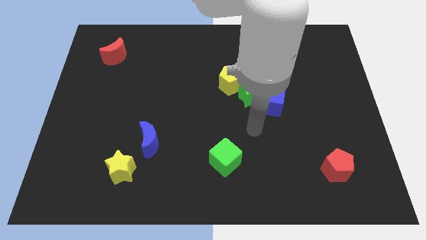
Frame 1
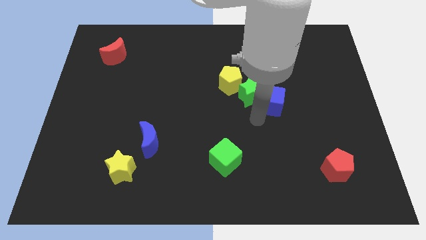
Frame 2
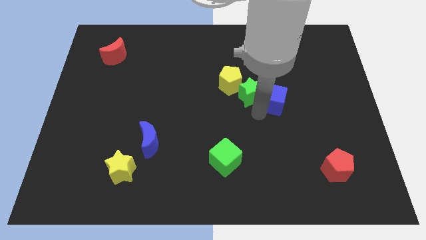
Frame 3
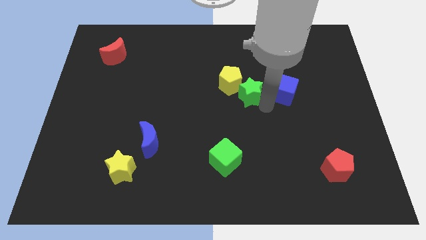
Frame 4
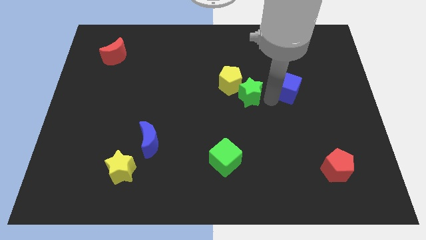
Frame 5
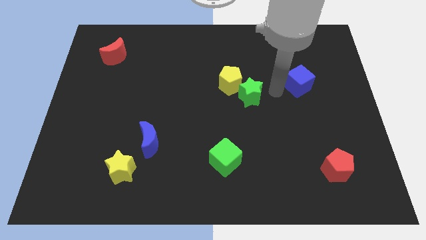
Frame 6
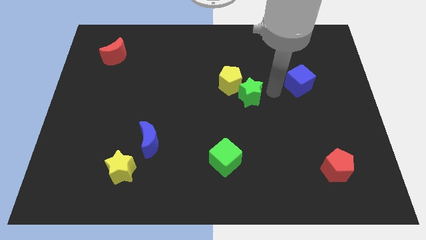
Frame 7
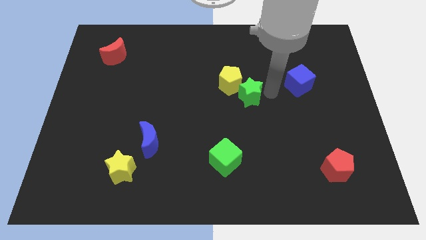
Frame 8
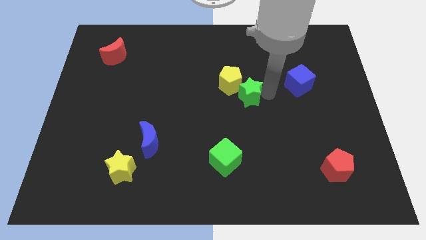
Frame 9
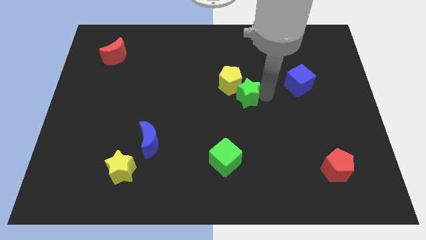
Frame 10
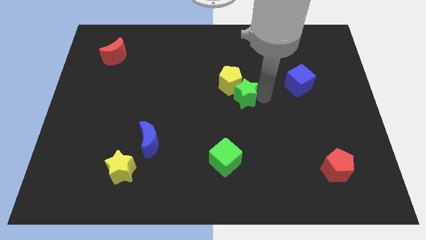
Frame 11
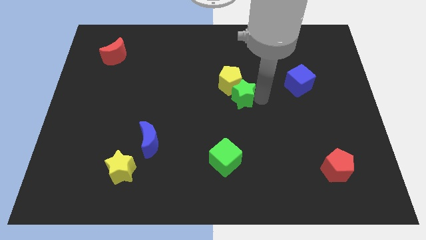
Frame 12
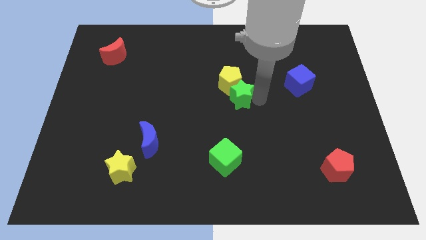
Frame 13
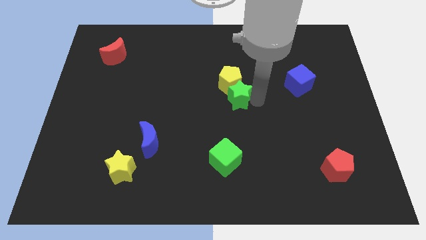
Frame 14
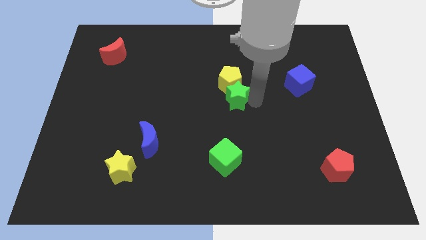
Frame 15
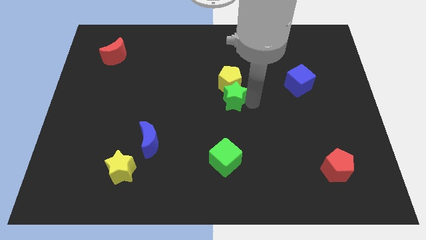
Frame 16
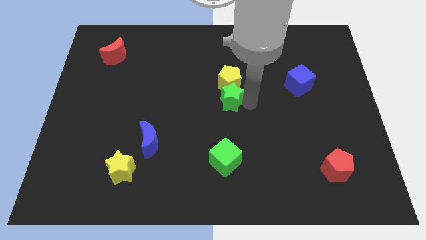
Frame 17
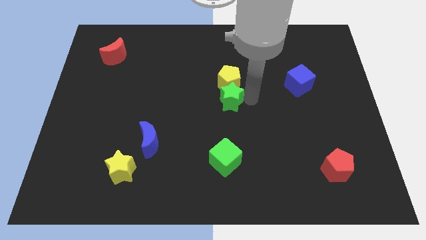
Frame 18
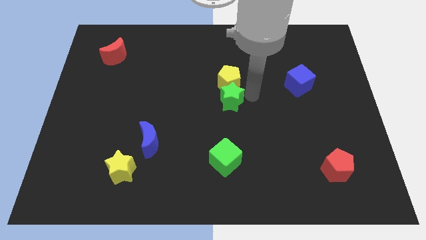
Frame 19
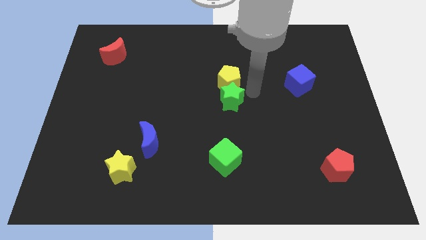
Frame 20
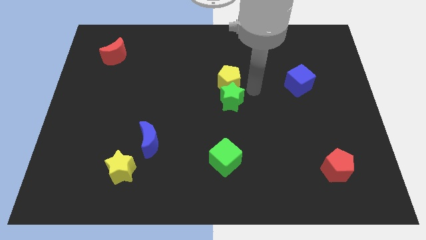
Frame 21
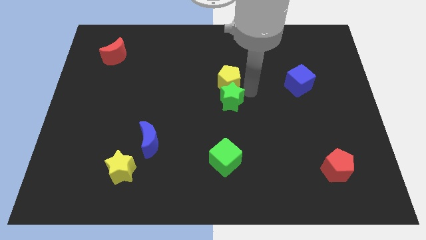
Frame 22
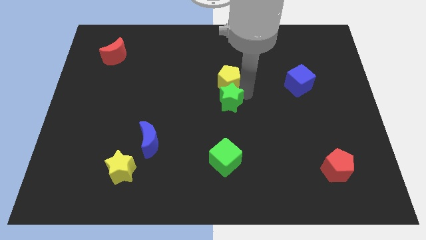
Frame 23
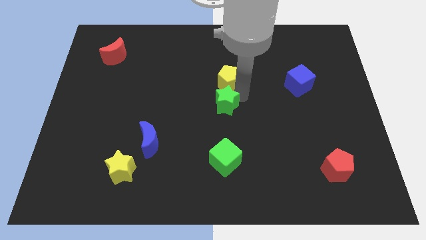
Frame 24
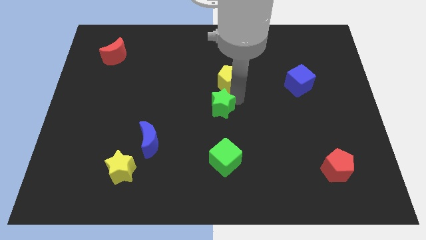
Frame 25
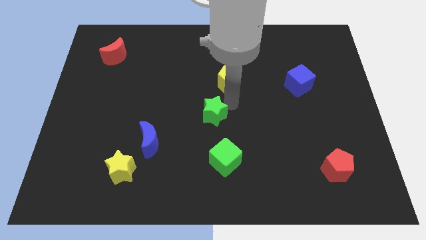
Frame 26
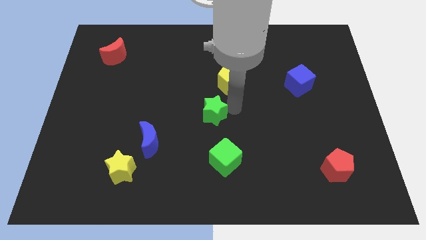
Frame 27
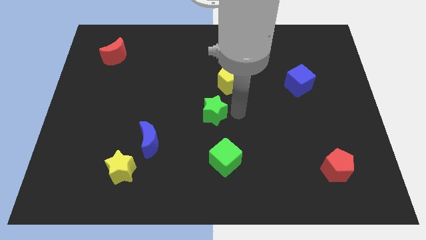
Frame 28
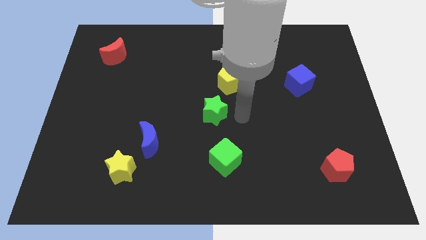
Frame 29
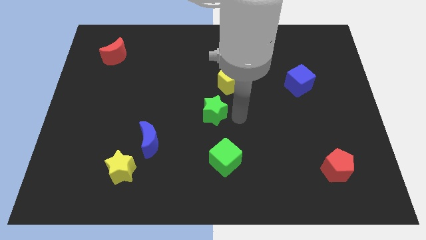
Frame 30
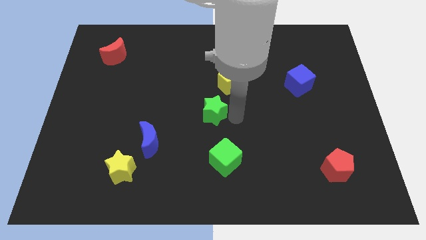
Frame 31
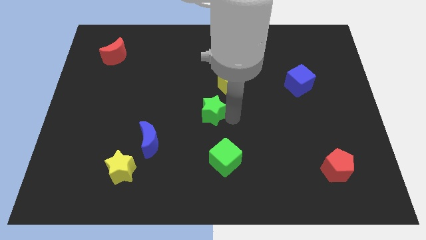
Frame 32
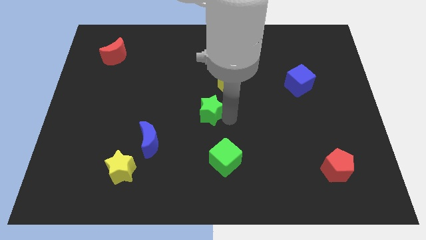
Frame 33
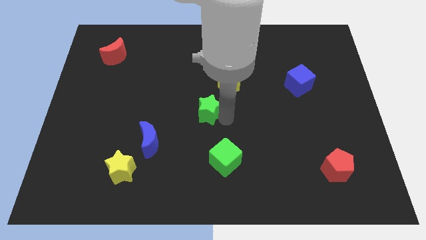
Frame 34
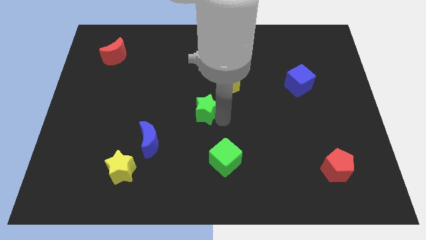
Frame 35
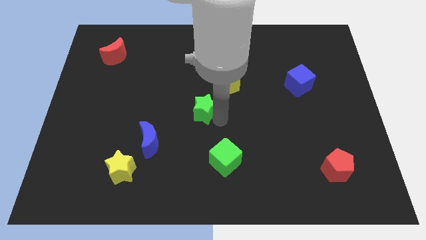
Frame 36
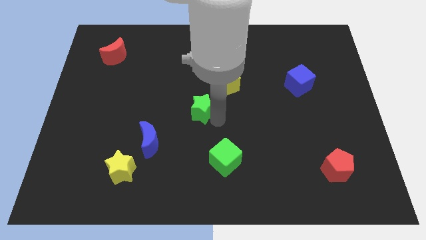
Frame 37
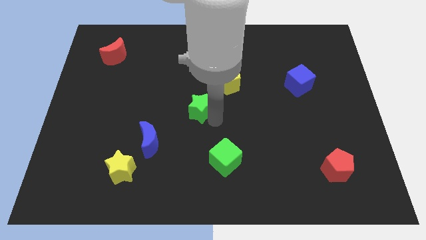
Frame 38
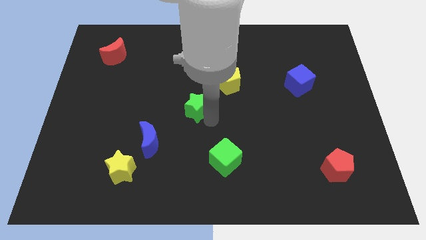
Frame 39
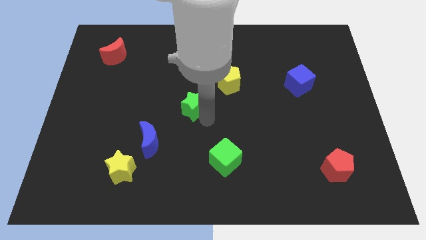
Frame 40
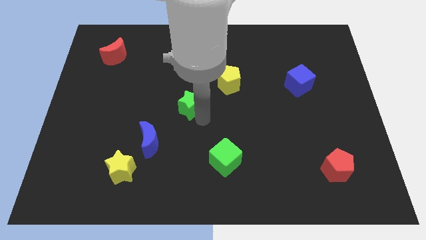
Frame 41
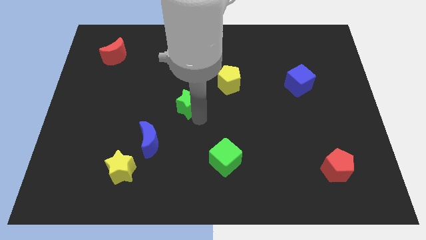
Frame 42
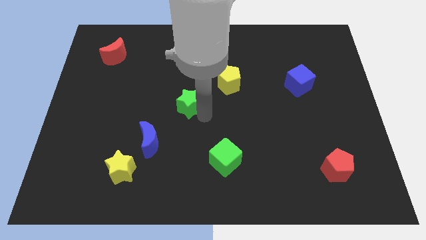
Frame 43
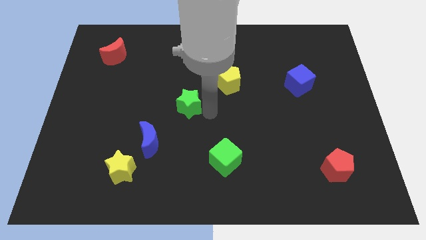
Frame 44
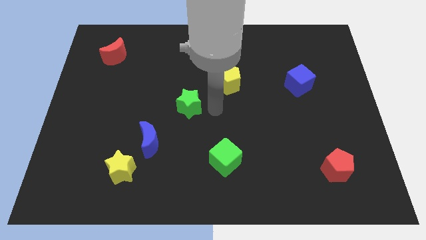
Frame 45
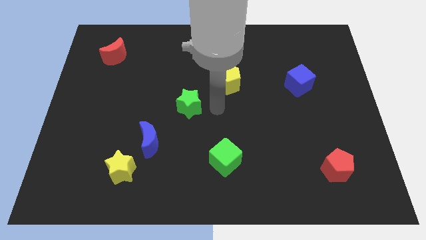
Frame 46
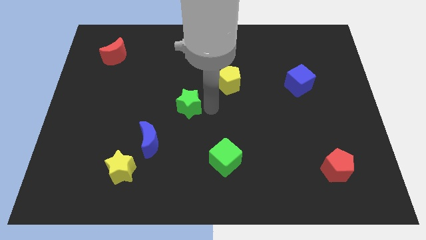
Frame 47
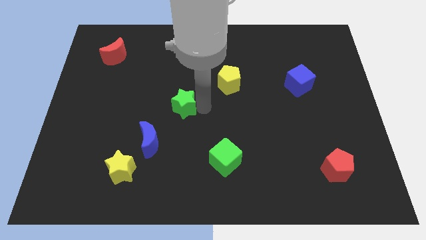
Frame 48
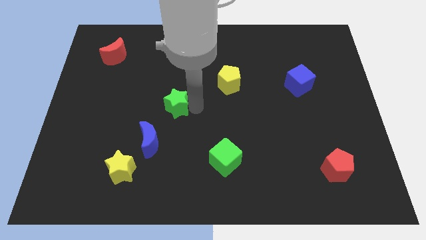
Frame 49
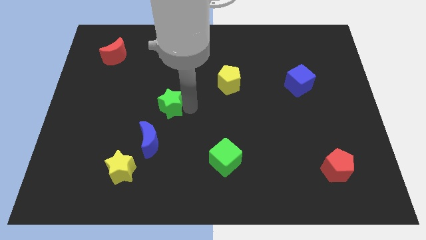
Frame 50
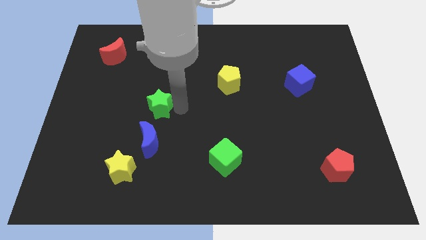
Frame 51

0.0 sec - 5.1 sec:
slide the green star left

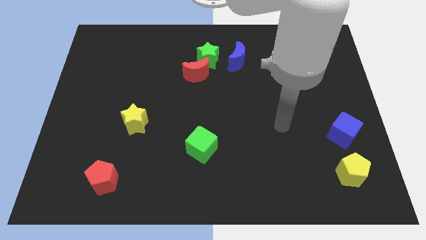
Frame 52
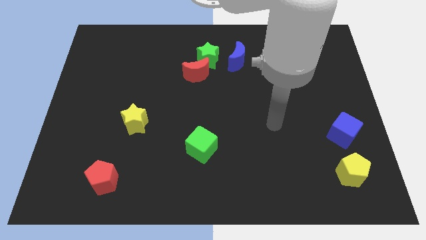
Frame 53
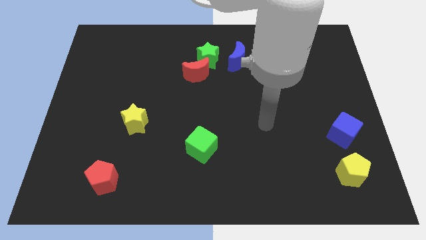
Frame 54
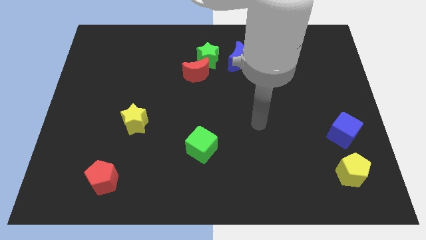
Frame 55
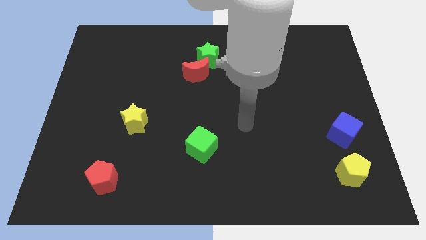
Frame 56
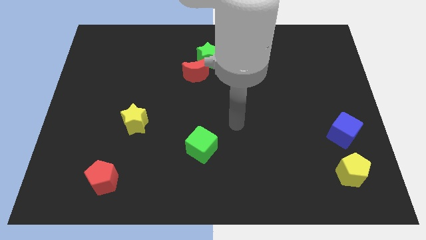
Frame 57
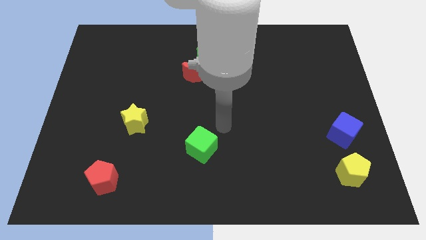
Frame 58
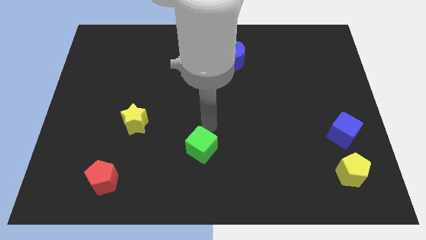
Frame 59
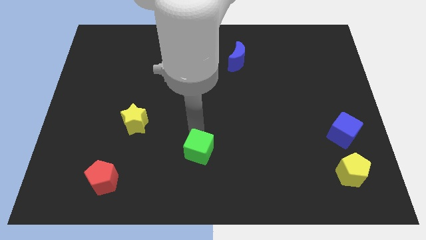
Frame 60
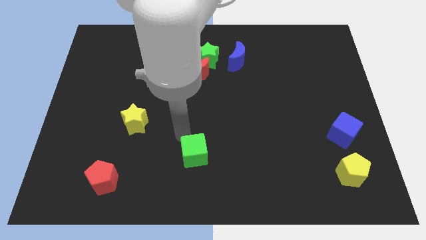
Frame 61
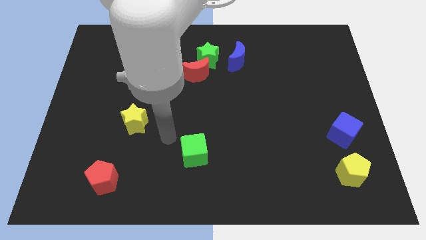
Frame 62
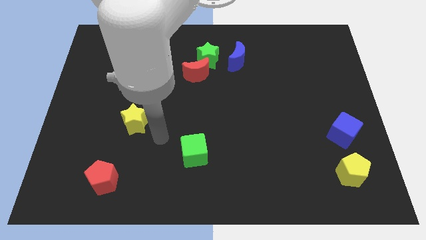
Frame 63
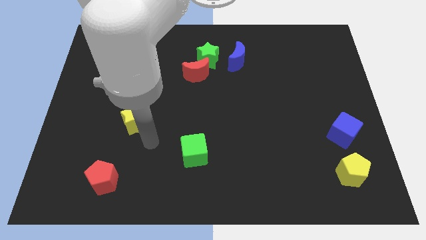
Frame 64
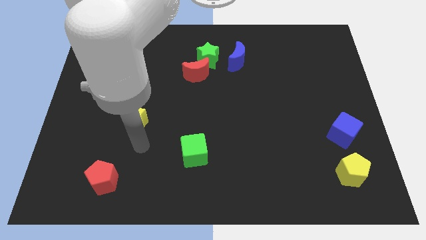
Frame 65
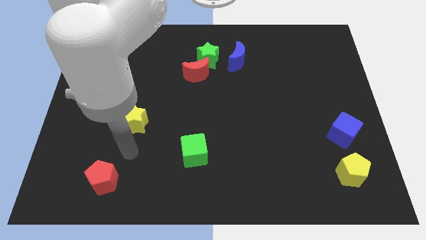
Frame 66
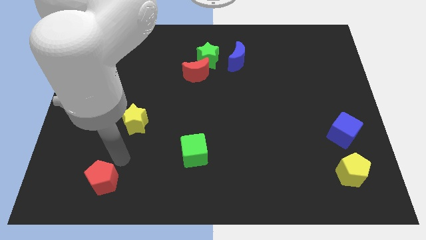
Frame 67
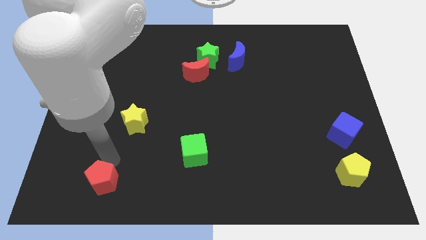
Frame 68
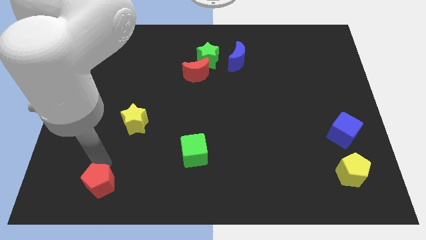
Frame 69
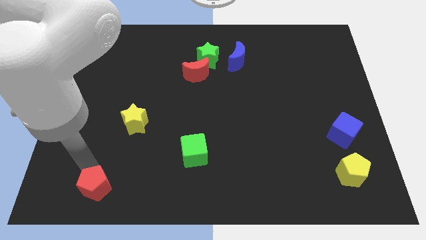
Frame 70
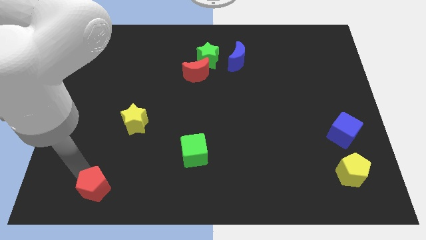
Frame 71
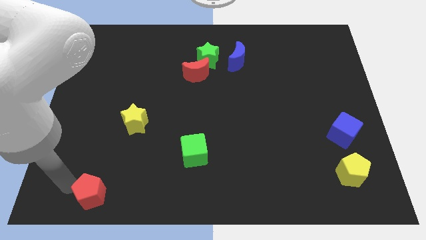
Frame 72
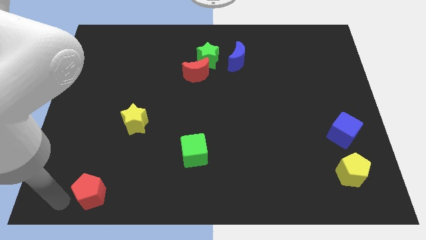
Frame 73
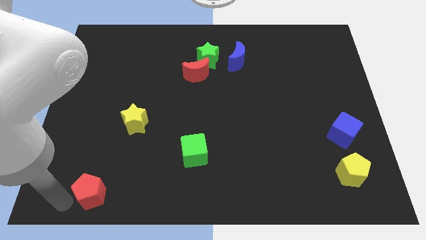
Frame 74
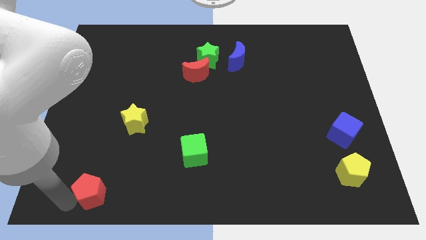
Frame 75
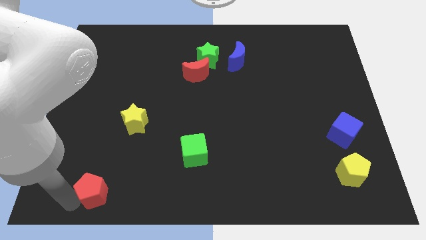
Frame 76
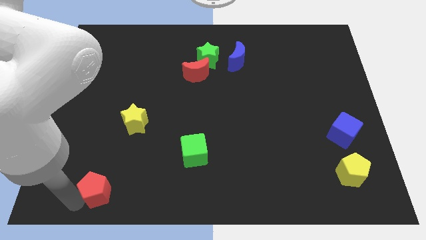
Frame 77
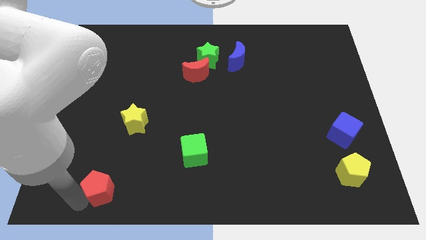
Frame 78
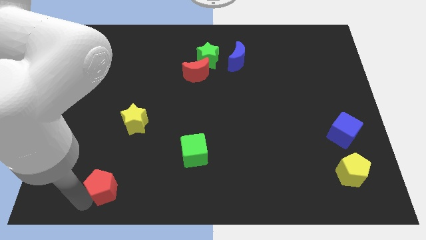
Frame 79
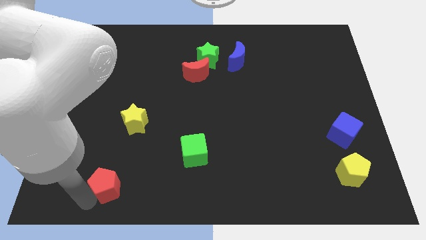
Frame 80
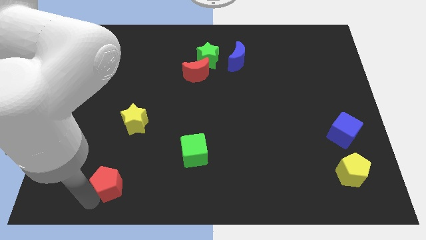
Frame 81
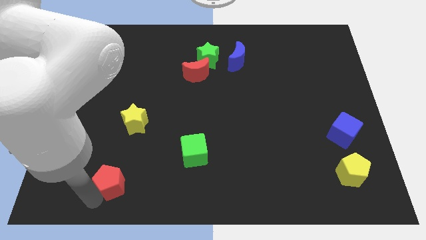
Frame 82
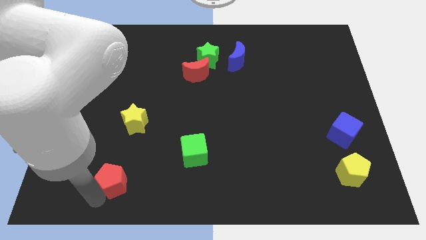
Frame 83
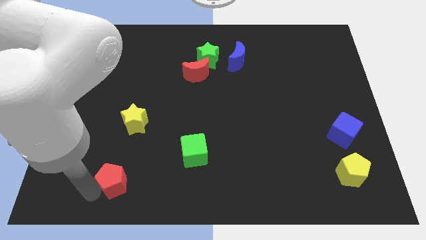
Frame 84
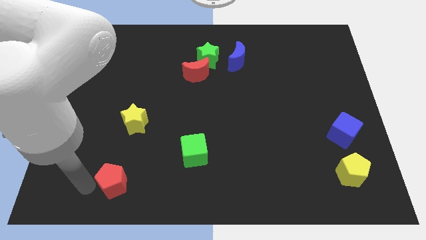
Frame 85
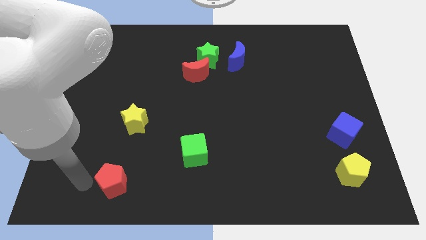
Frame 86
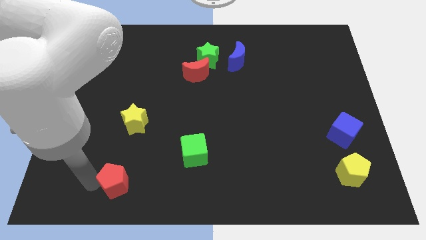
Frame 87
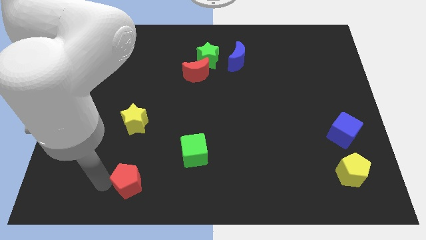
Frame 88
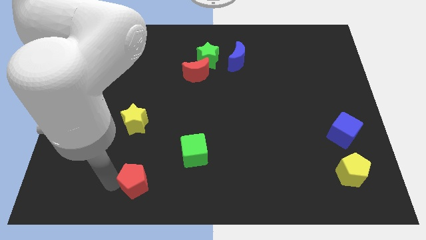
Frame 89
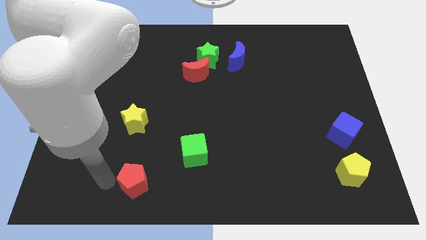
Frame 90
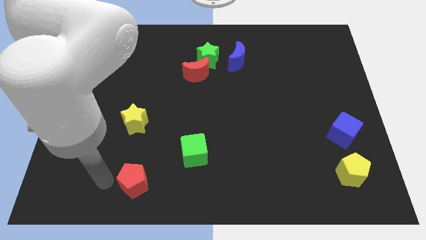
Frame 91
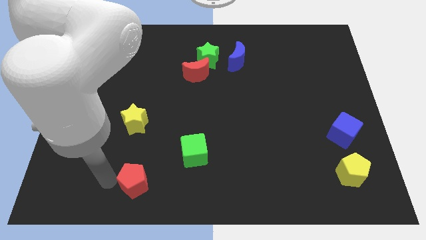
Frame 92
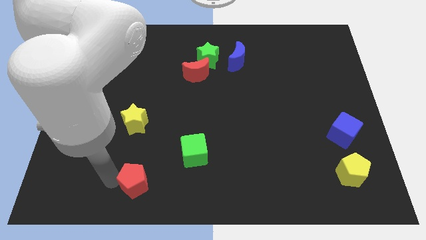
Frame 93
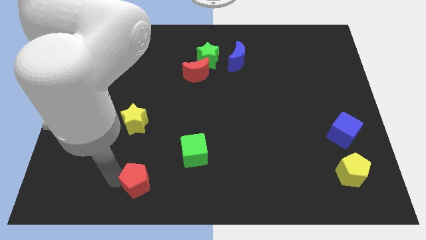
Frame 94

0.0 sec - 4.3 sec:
move the red pentagon to the right slightly
